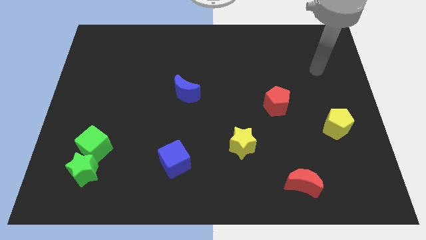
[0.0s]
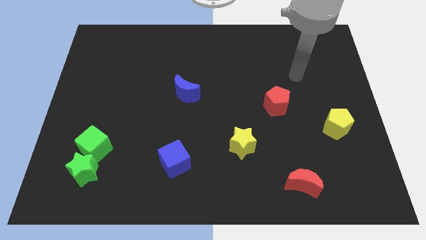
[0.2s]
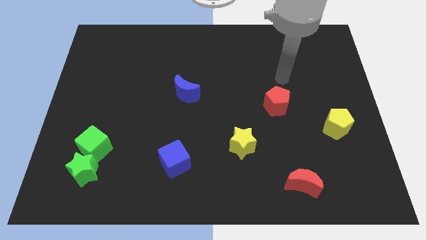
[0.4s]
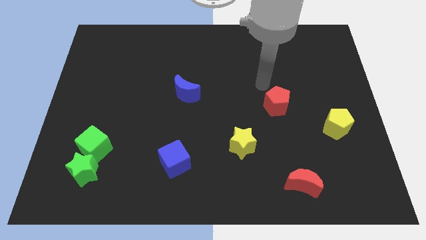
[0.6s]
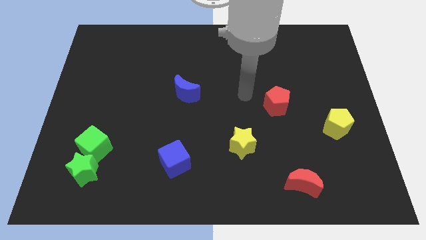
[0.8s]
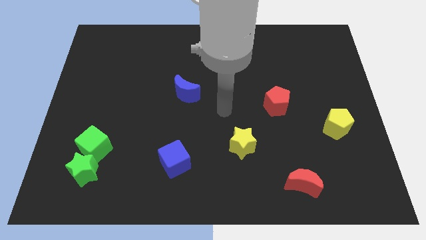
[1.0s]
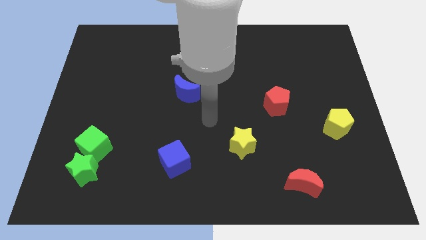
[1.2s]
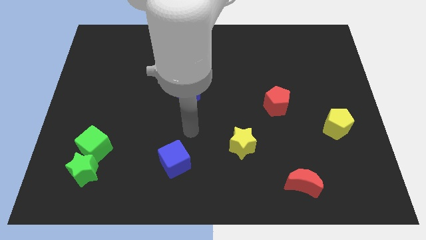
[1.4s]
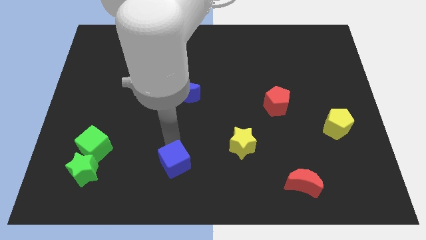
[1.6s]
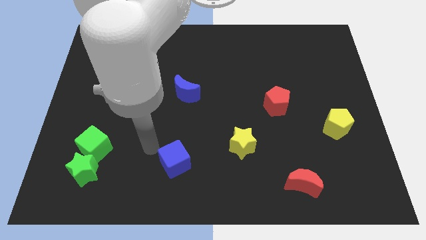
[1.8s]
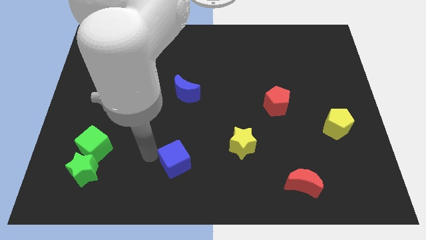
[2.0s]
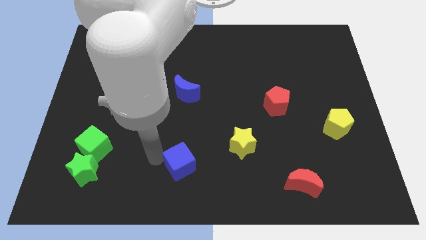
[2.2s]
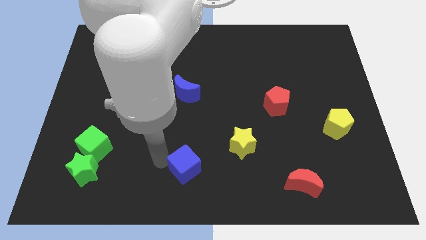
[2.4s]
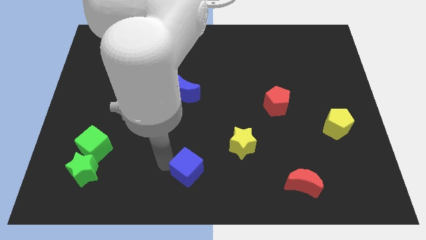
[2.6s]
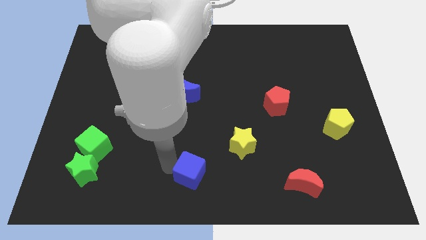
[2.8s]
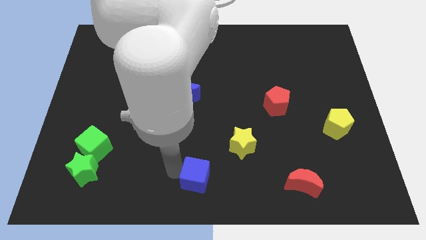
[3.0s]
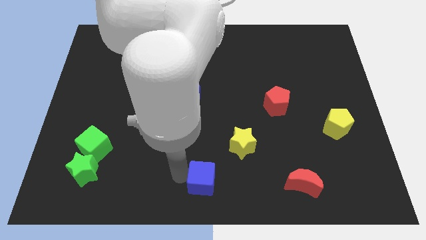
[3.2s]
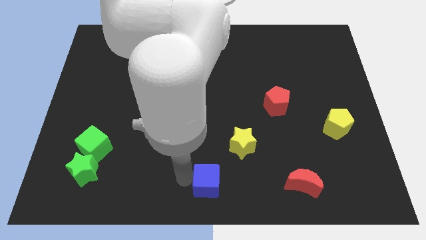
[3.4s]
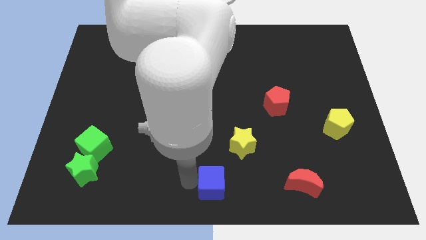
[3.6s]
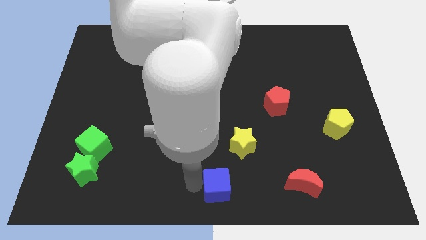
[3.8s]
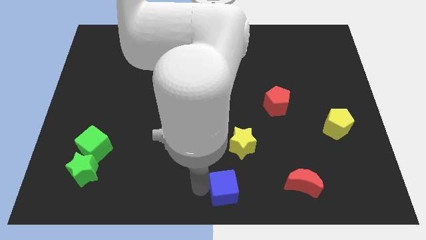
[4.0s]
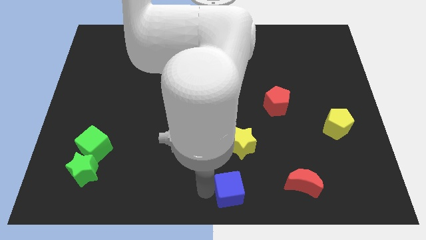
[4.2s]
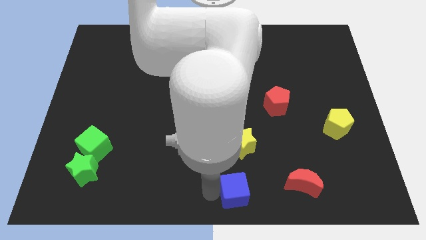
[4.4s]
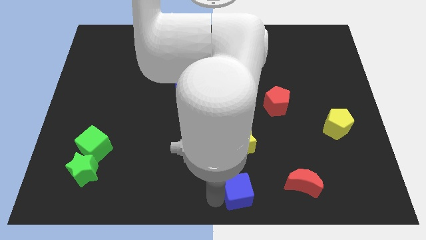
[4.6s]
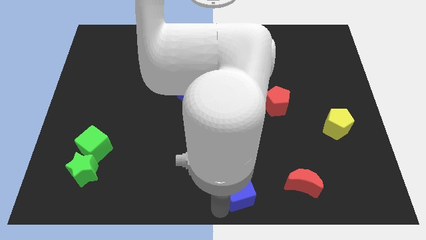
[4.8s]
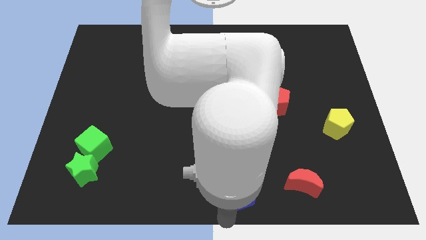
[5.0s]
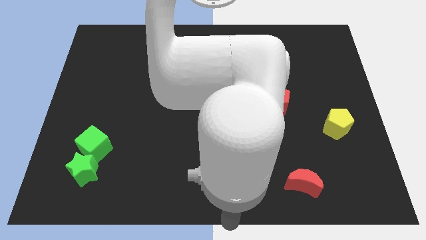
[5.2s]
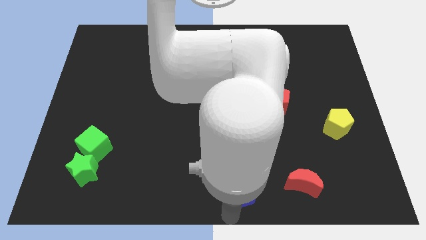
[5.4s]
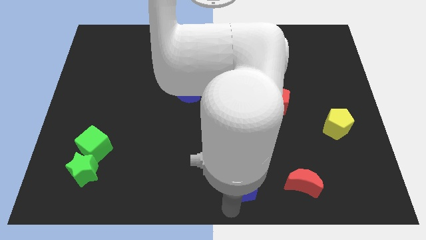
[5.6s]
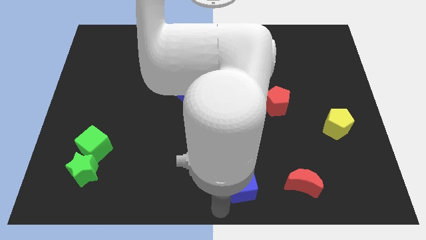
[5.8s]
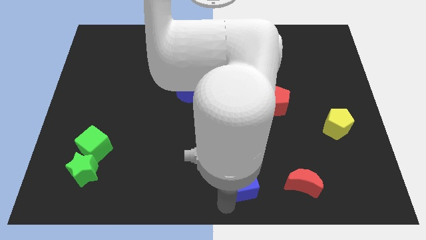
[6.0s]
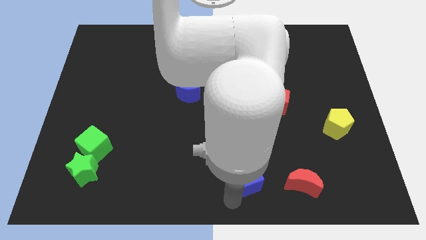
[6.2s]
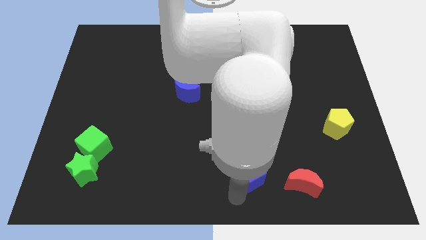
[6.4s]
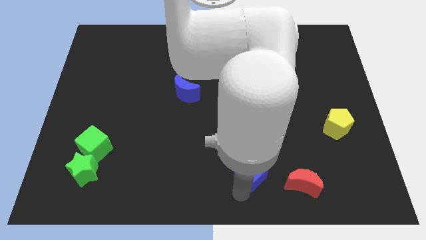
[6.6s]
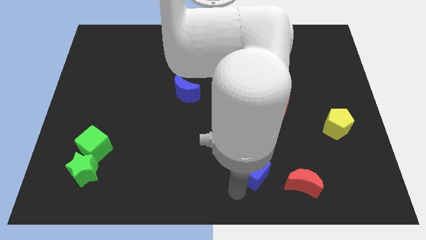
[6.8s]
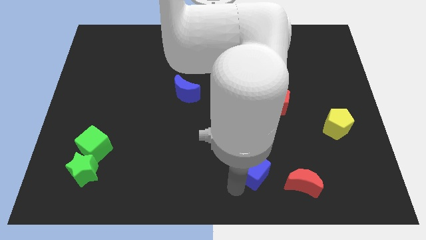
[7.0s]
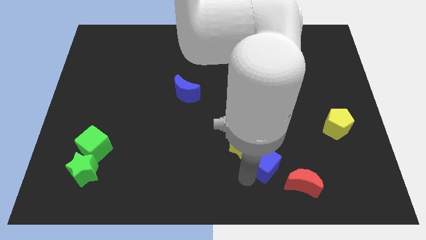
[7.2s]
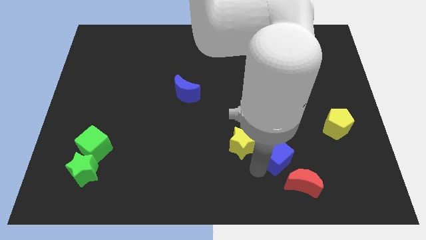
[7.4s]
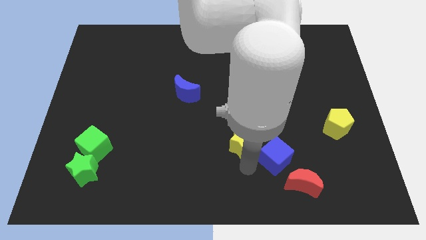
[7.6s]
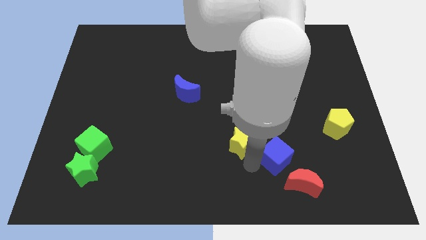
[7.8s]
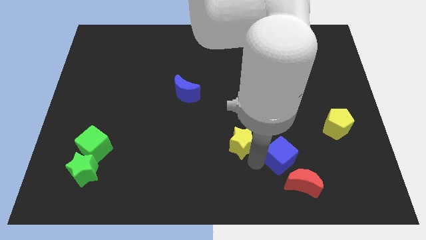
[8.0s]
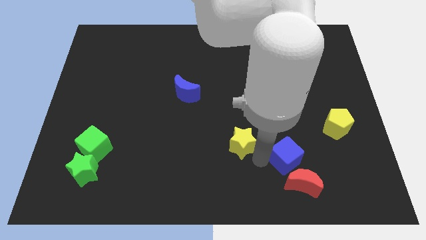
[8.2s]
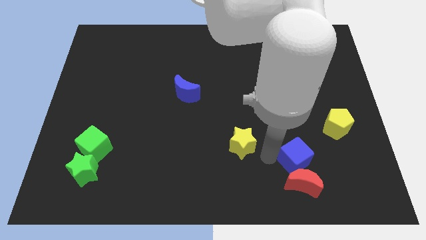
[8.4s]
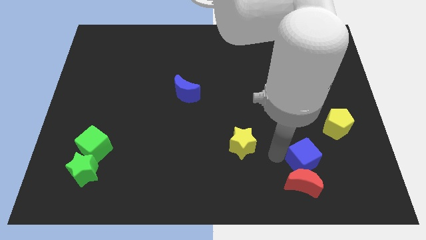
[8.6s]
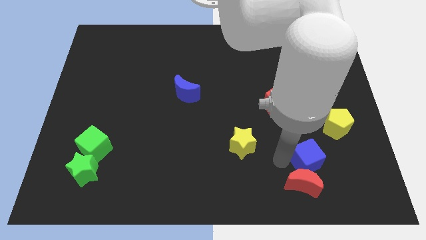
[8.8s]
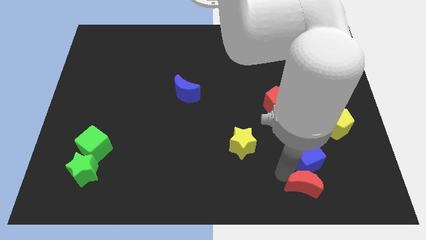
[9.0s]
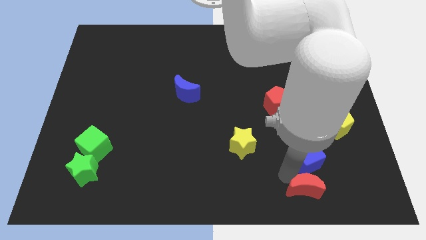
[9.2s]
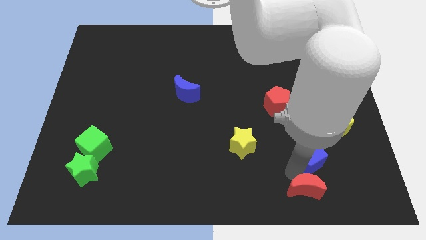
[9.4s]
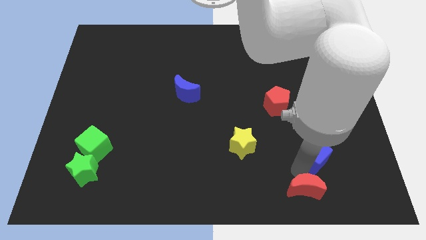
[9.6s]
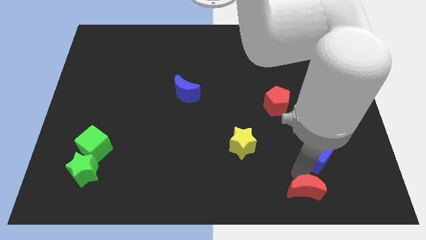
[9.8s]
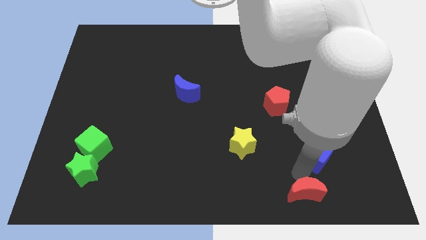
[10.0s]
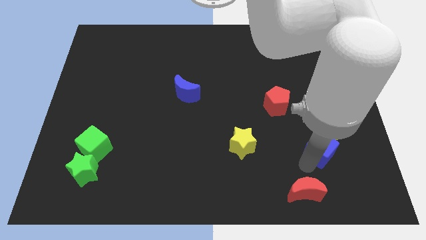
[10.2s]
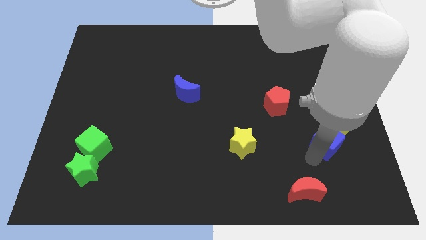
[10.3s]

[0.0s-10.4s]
slide the blue cube to the yellow pentagon
